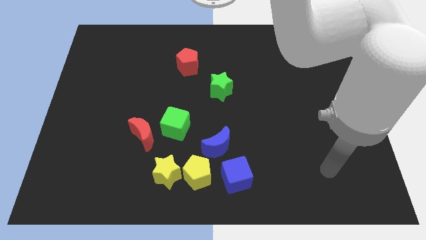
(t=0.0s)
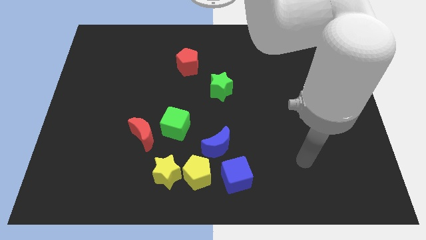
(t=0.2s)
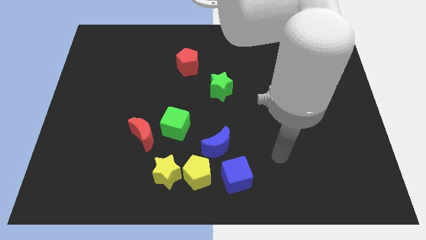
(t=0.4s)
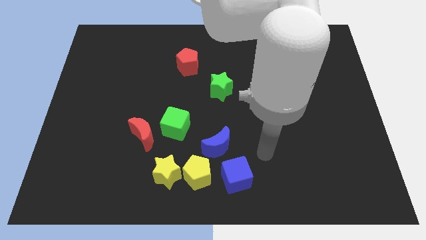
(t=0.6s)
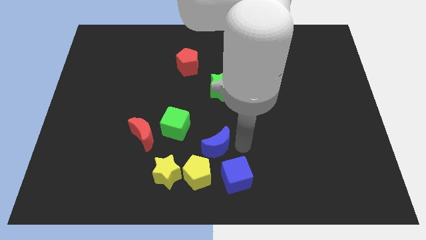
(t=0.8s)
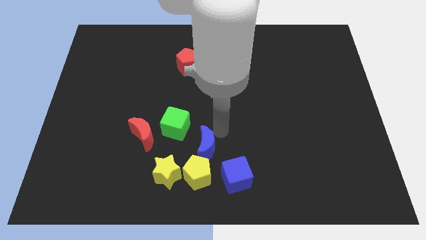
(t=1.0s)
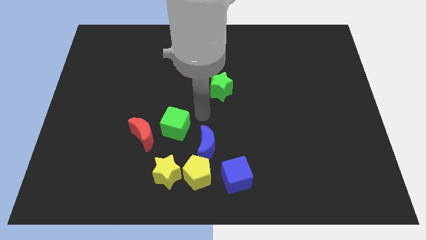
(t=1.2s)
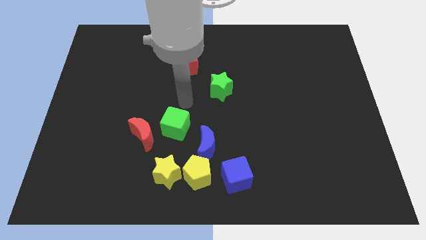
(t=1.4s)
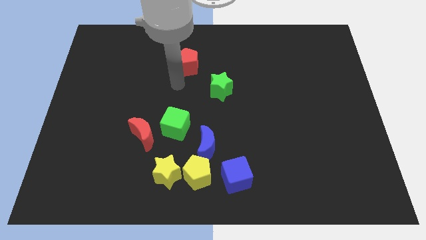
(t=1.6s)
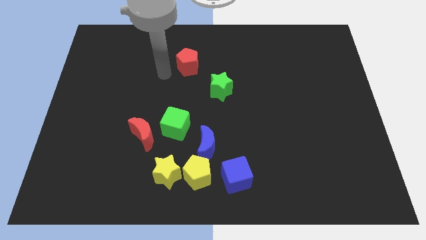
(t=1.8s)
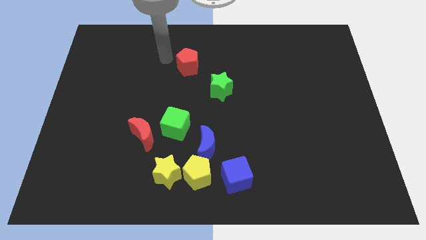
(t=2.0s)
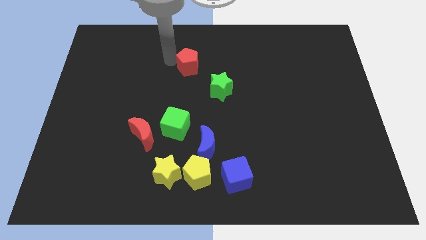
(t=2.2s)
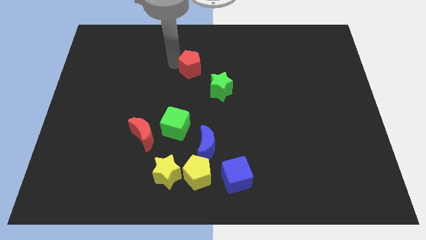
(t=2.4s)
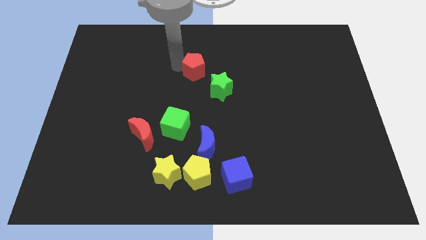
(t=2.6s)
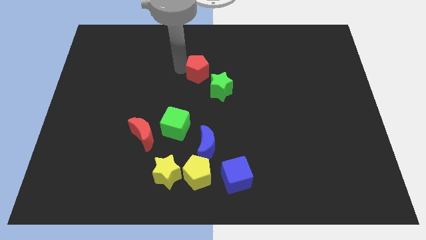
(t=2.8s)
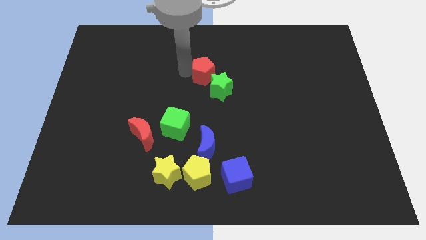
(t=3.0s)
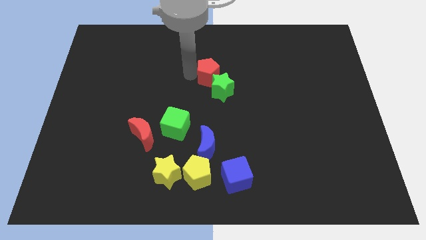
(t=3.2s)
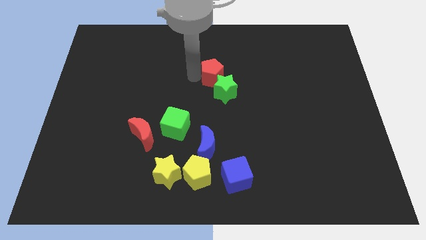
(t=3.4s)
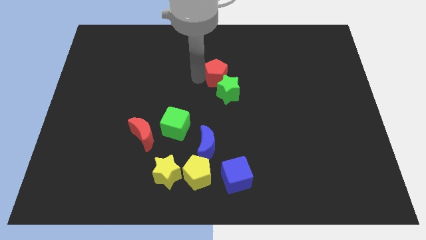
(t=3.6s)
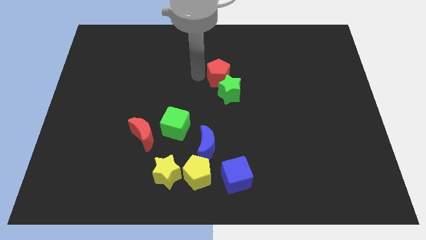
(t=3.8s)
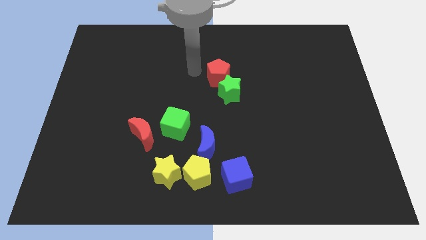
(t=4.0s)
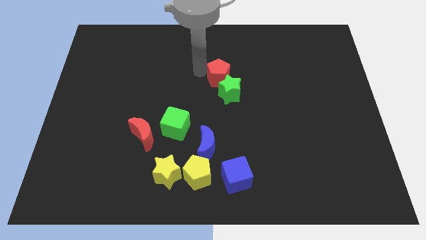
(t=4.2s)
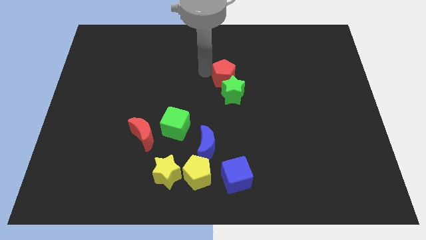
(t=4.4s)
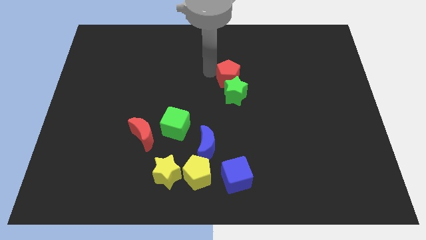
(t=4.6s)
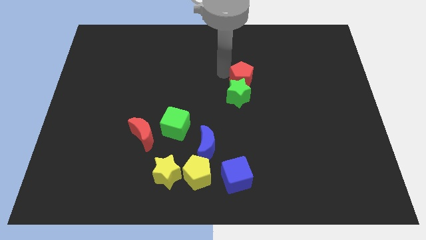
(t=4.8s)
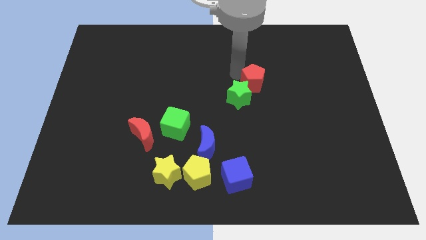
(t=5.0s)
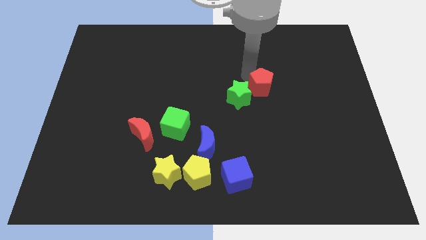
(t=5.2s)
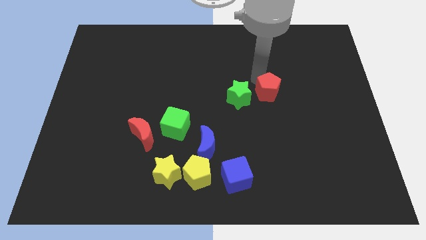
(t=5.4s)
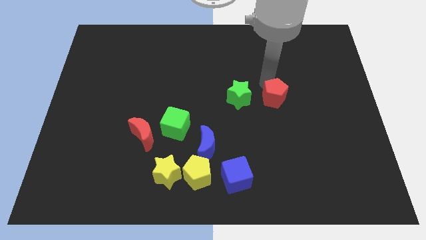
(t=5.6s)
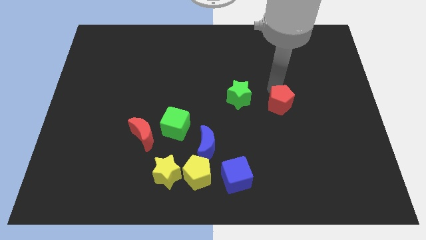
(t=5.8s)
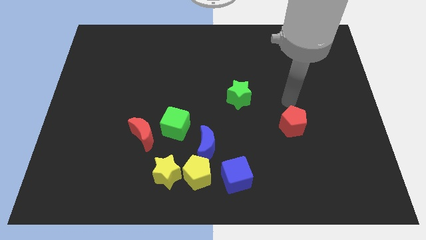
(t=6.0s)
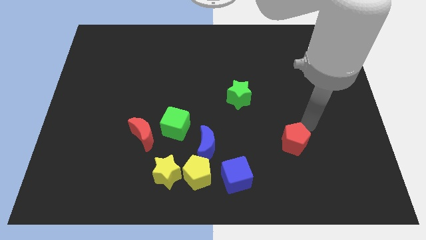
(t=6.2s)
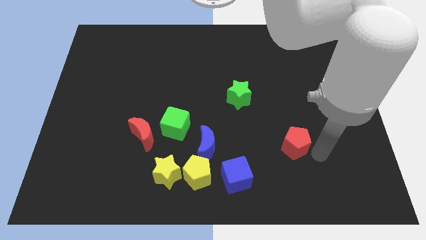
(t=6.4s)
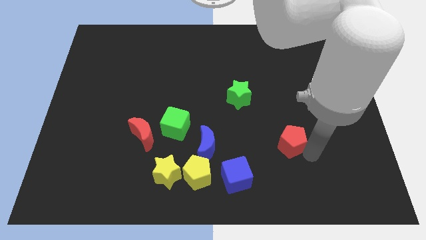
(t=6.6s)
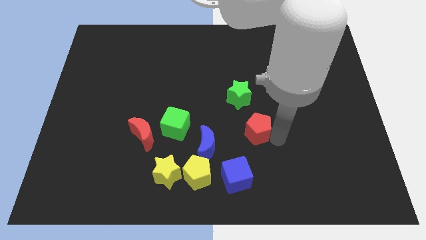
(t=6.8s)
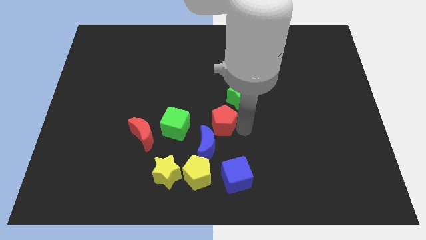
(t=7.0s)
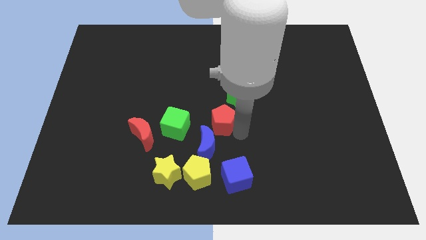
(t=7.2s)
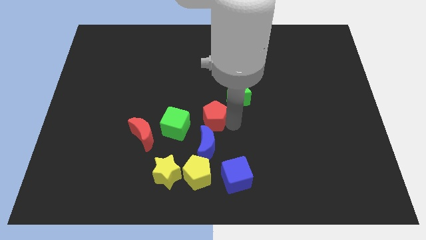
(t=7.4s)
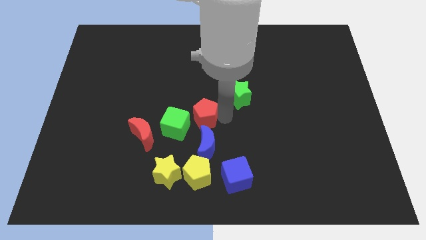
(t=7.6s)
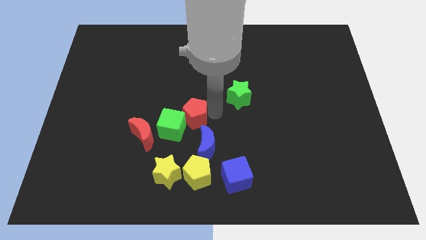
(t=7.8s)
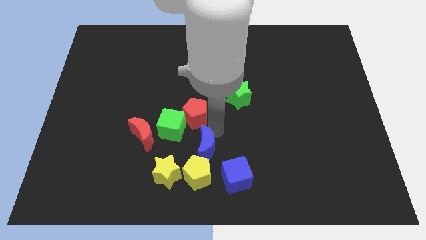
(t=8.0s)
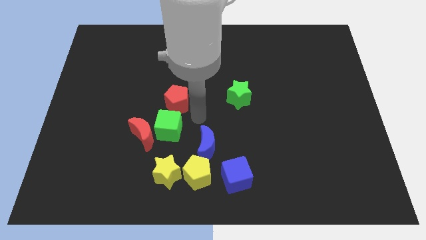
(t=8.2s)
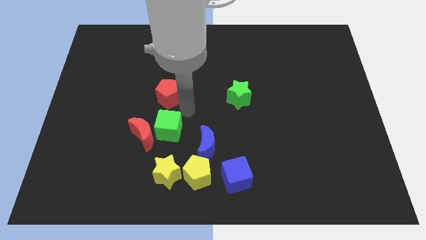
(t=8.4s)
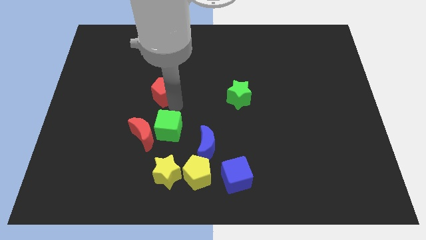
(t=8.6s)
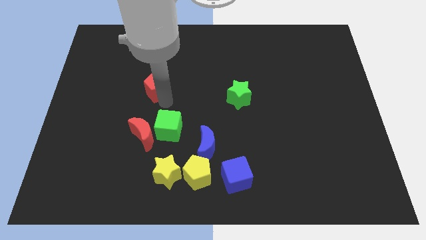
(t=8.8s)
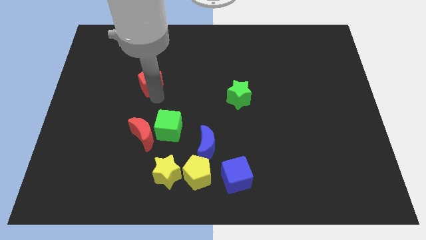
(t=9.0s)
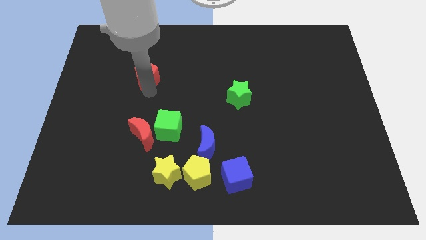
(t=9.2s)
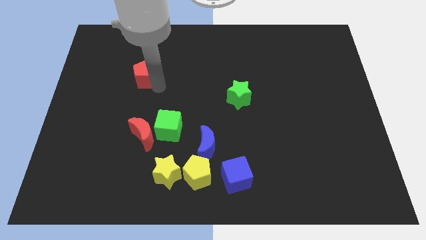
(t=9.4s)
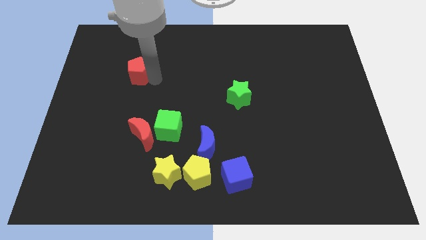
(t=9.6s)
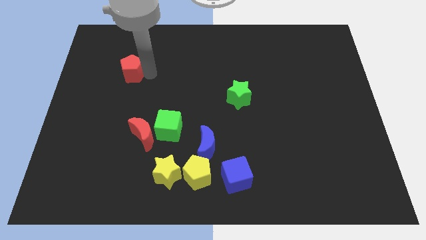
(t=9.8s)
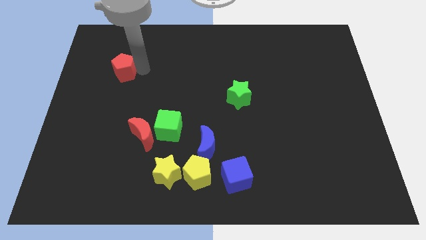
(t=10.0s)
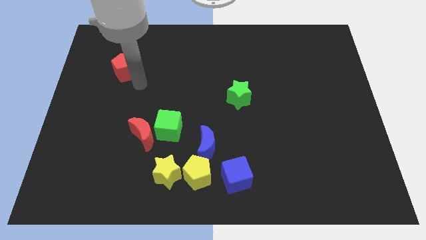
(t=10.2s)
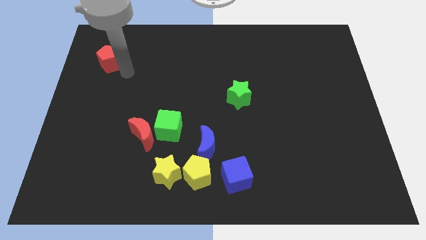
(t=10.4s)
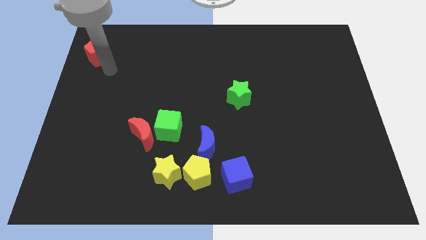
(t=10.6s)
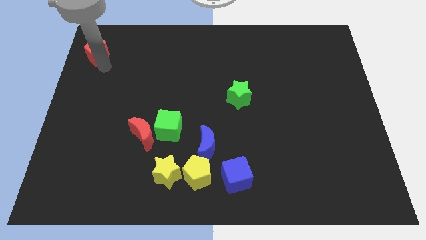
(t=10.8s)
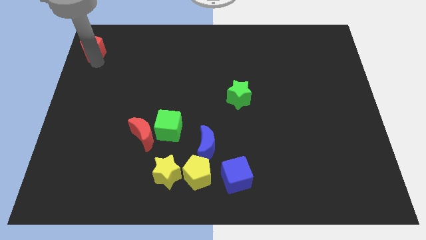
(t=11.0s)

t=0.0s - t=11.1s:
slide the red pentagon to the top left

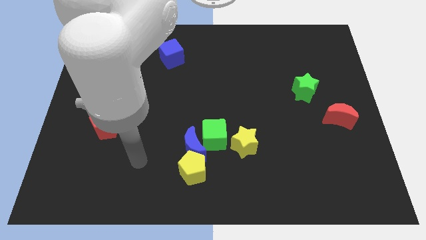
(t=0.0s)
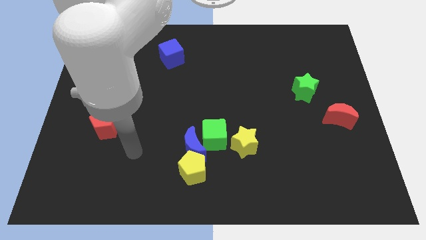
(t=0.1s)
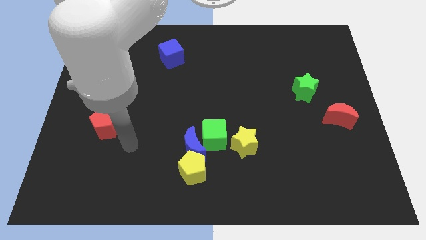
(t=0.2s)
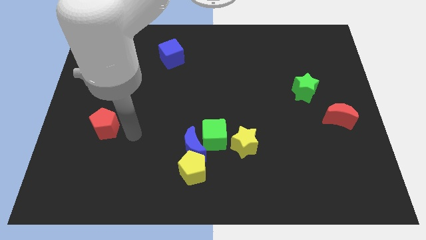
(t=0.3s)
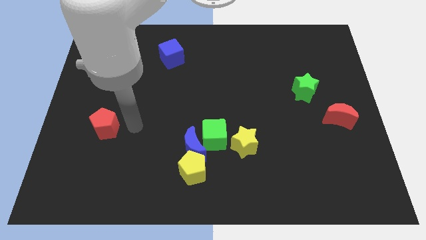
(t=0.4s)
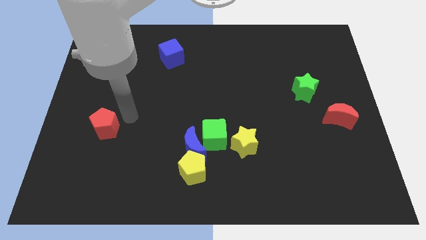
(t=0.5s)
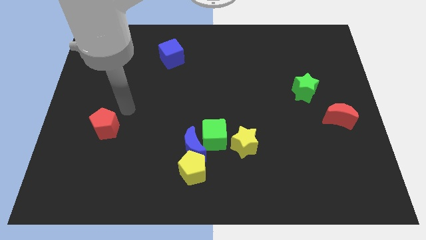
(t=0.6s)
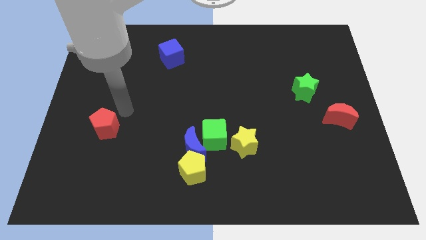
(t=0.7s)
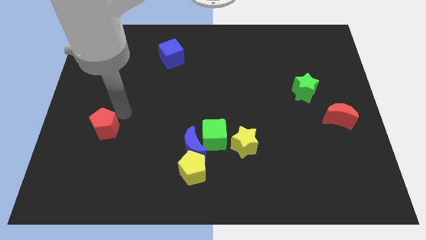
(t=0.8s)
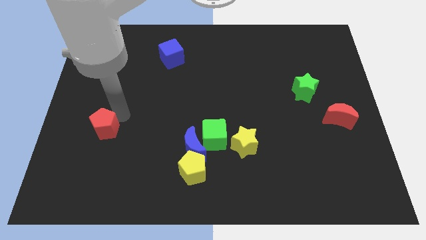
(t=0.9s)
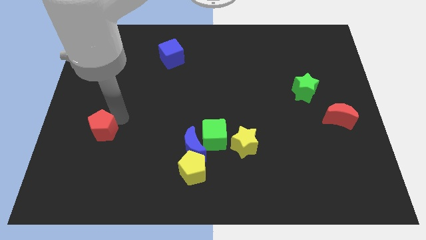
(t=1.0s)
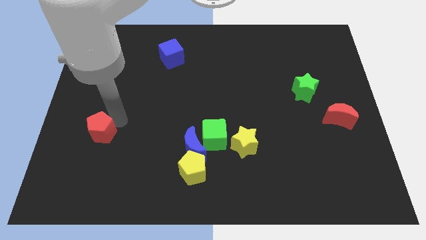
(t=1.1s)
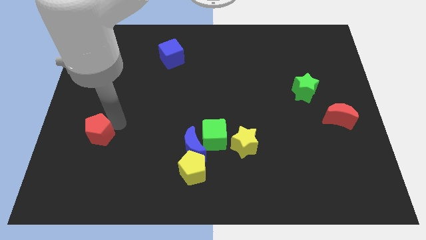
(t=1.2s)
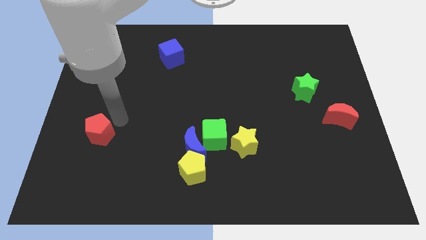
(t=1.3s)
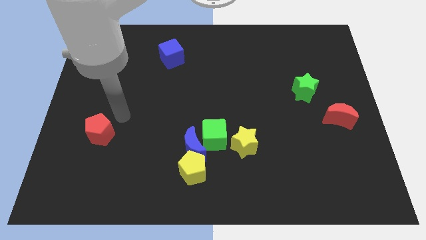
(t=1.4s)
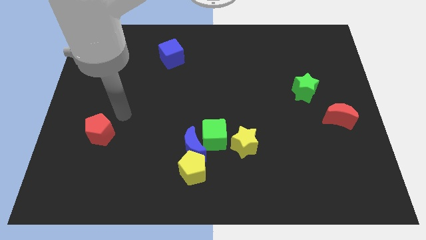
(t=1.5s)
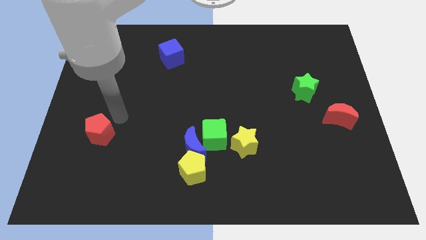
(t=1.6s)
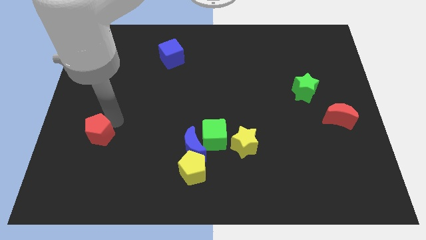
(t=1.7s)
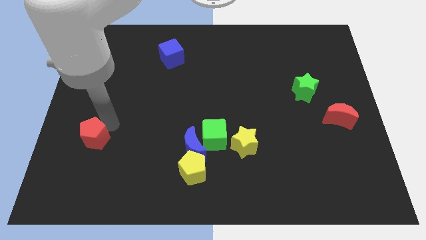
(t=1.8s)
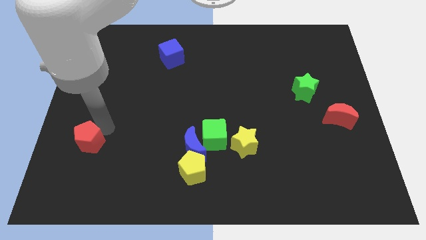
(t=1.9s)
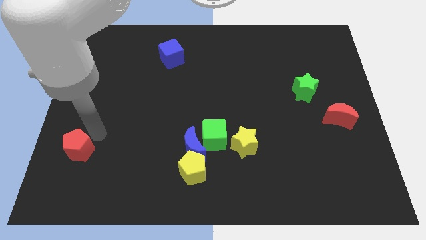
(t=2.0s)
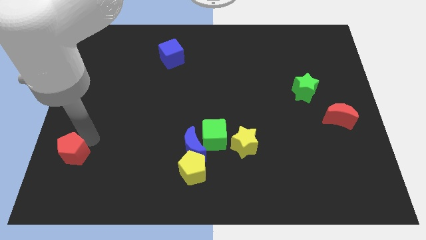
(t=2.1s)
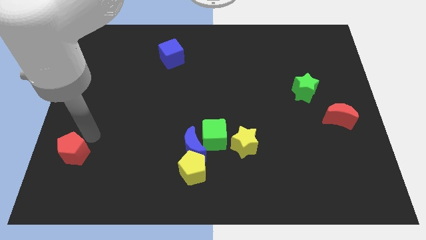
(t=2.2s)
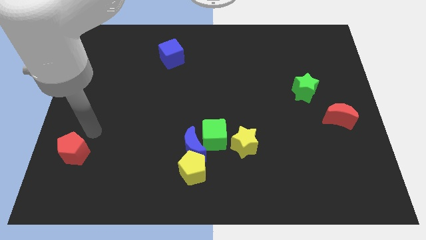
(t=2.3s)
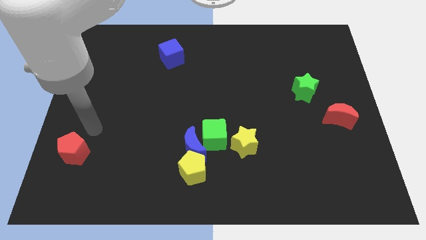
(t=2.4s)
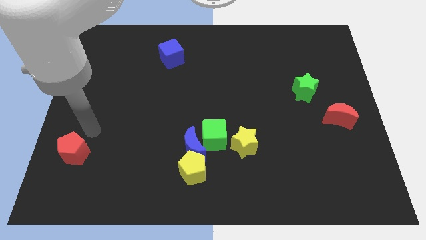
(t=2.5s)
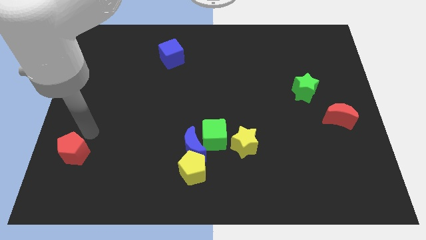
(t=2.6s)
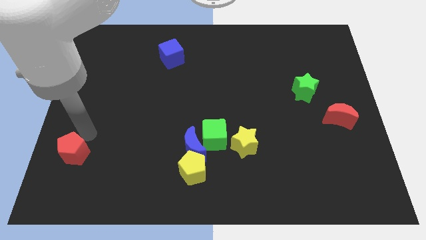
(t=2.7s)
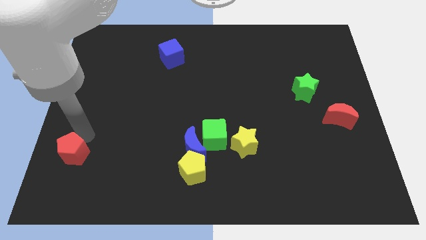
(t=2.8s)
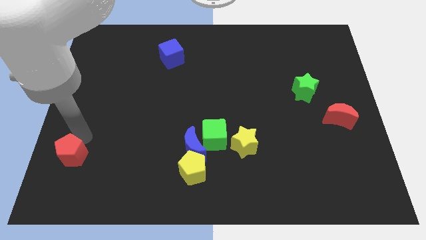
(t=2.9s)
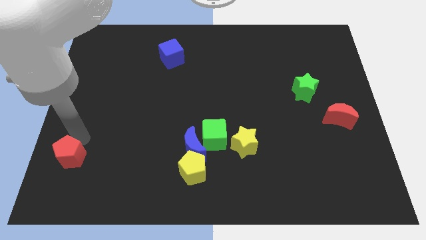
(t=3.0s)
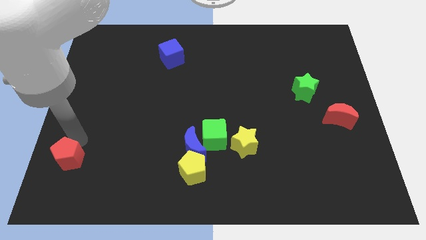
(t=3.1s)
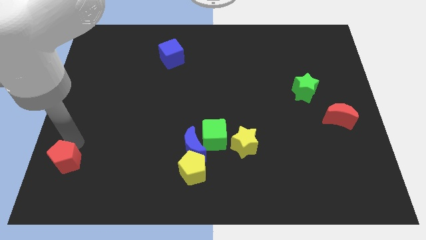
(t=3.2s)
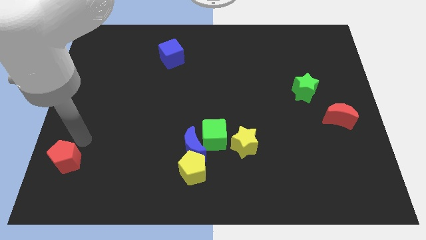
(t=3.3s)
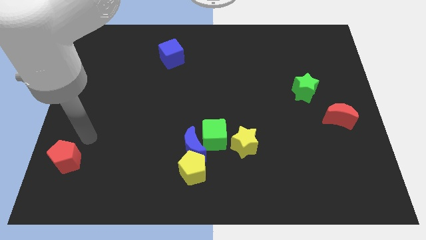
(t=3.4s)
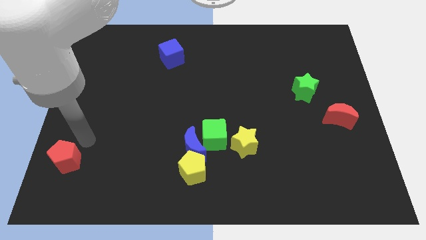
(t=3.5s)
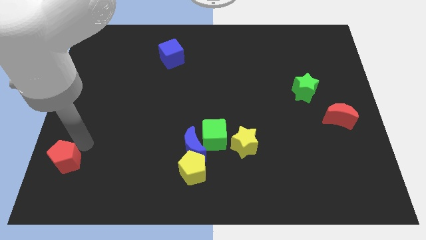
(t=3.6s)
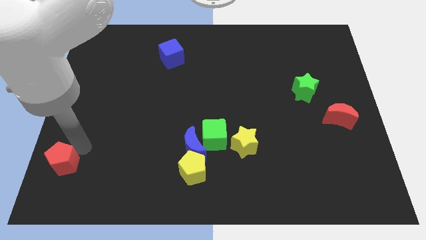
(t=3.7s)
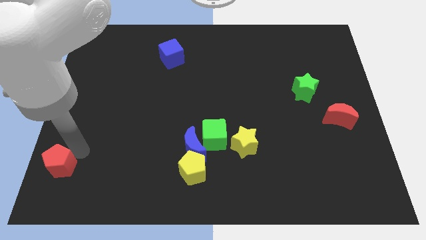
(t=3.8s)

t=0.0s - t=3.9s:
put the red pentagon to the bottom left corner
